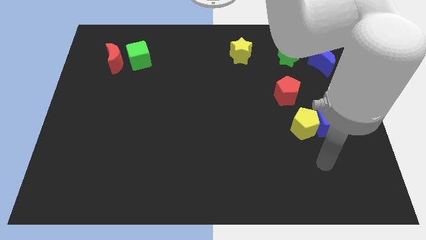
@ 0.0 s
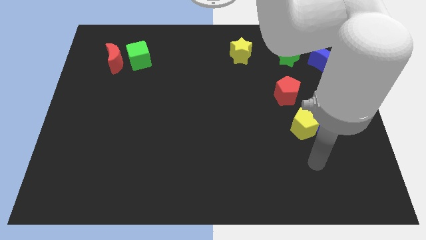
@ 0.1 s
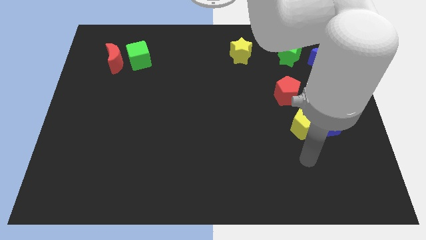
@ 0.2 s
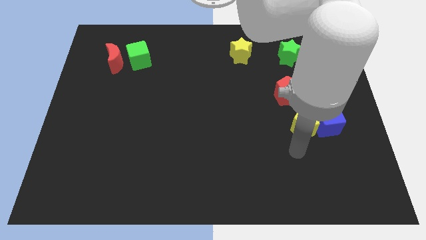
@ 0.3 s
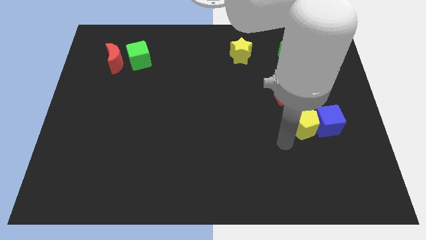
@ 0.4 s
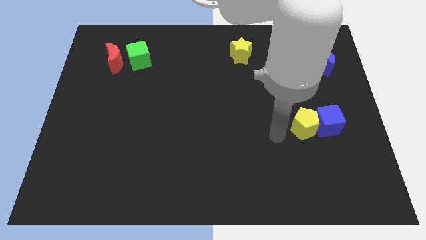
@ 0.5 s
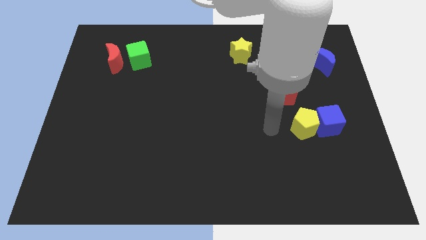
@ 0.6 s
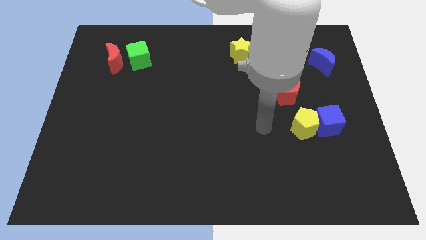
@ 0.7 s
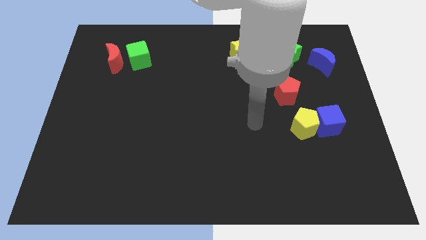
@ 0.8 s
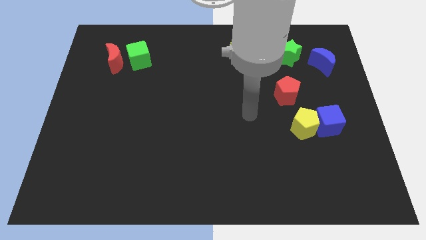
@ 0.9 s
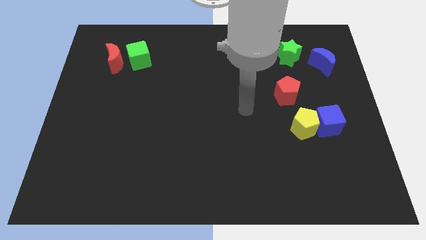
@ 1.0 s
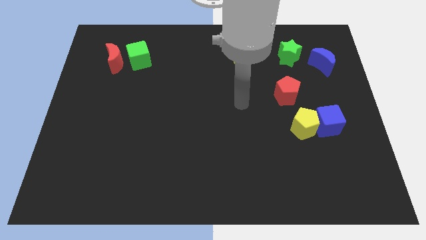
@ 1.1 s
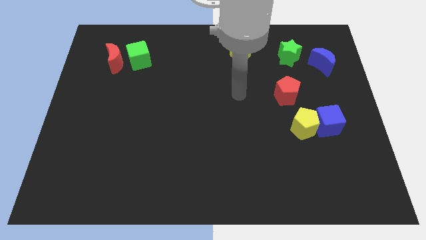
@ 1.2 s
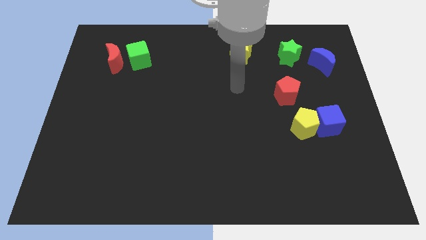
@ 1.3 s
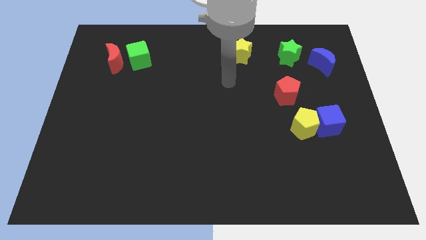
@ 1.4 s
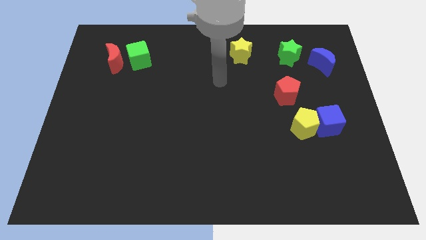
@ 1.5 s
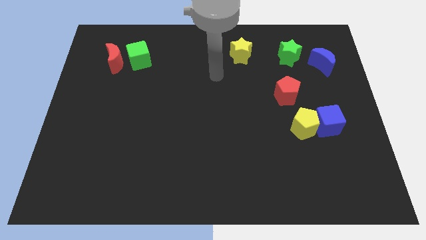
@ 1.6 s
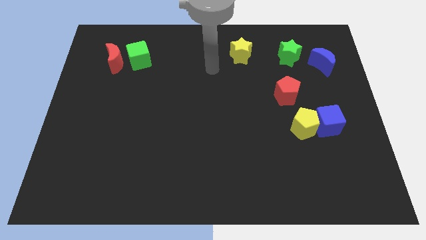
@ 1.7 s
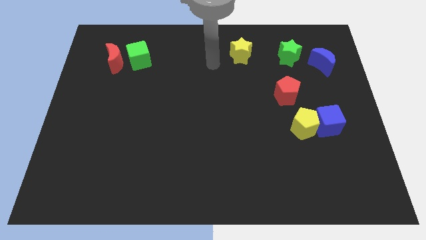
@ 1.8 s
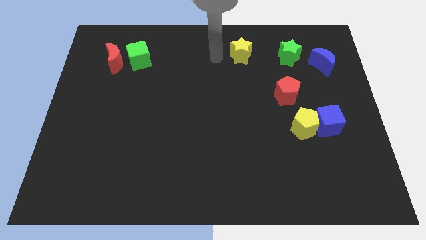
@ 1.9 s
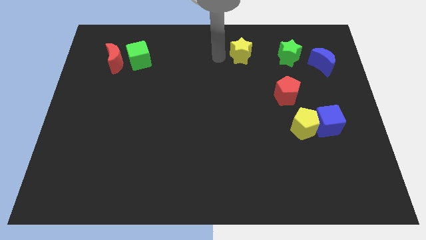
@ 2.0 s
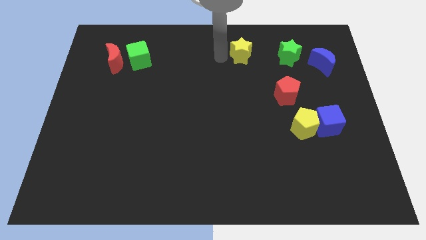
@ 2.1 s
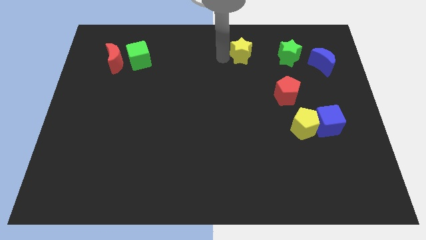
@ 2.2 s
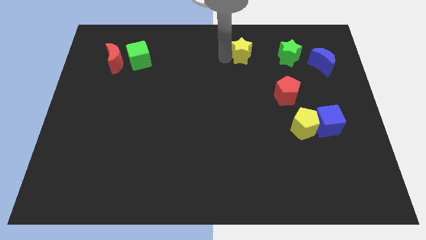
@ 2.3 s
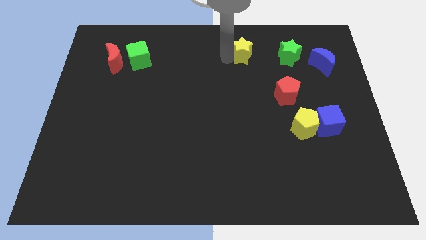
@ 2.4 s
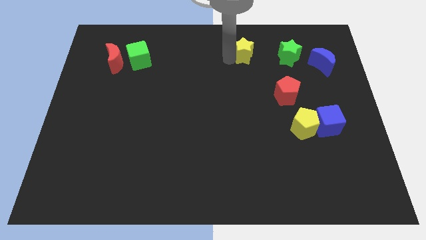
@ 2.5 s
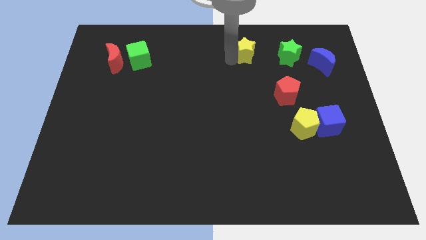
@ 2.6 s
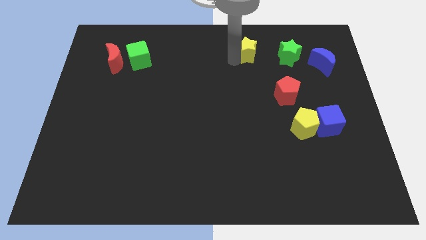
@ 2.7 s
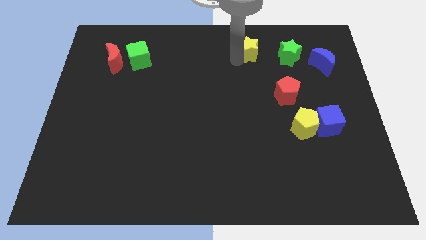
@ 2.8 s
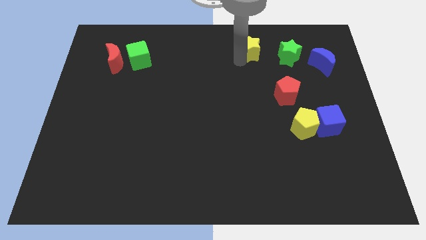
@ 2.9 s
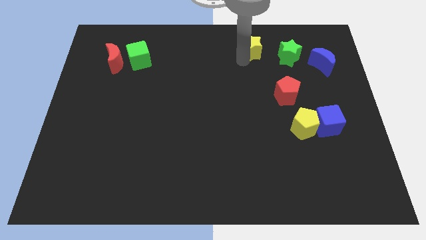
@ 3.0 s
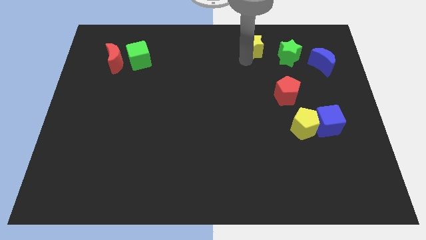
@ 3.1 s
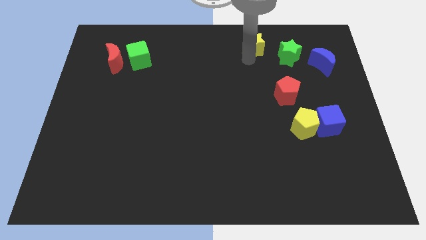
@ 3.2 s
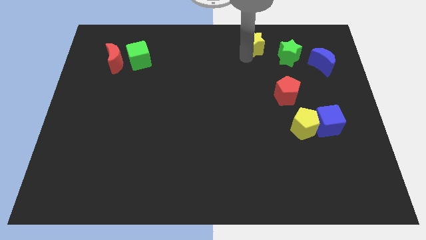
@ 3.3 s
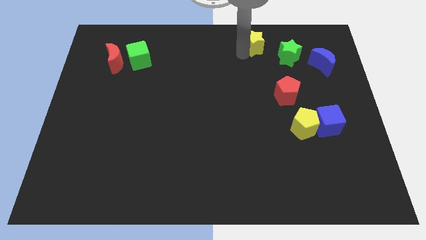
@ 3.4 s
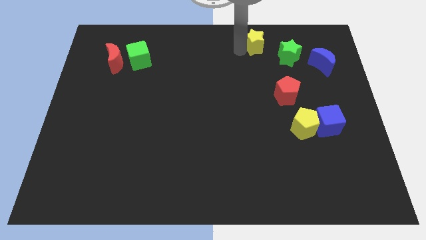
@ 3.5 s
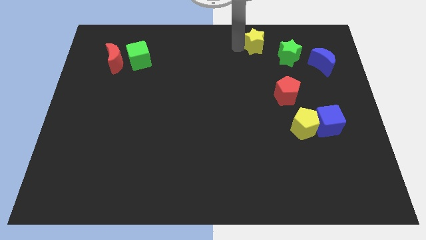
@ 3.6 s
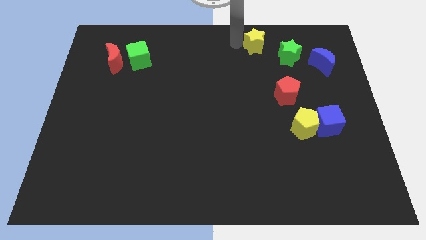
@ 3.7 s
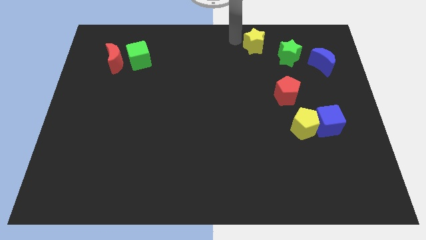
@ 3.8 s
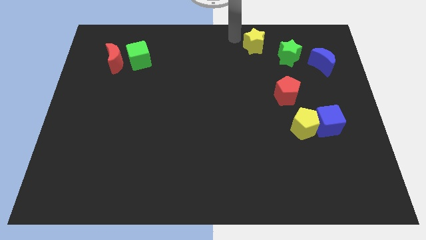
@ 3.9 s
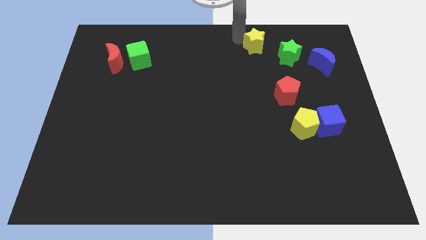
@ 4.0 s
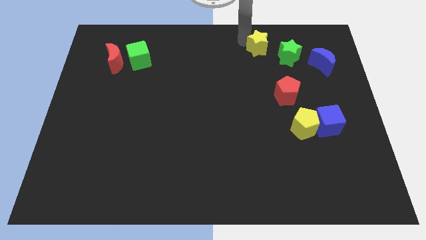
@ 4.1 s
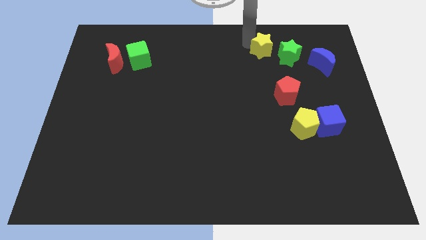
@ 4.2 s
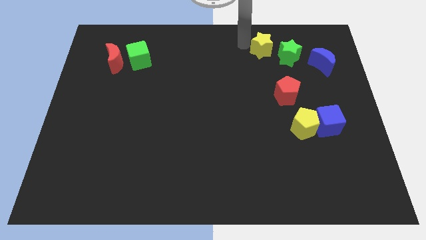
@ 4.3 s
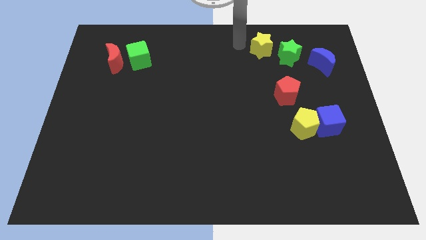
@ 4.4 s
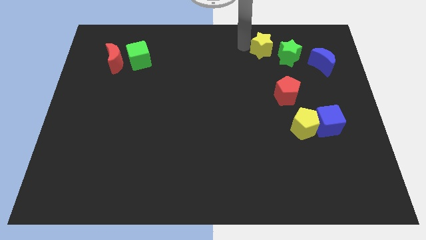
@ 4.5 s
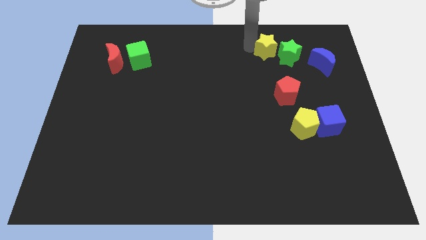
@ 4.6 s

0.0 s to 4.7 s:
put the yellow star next to the green star

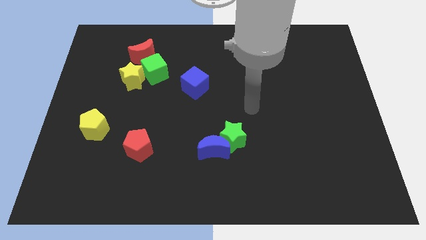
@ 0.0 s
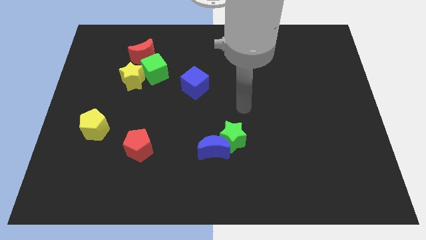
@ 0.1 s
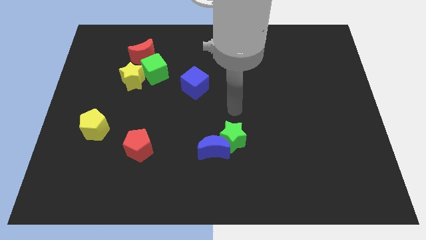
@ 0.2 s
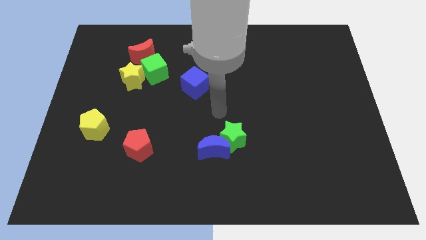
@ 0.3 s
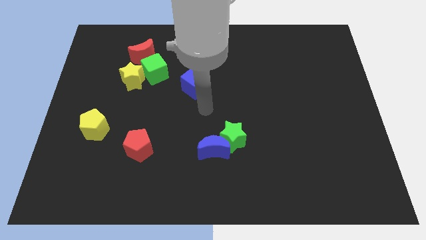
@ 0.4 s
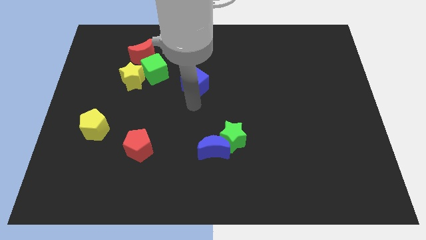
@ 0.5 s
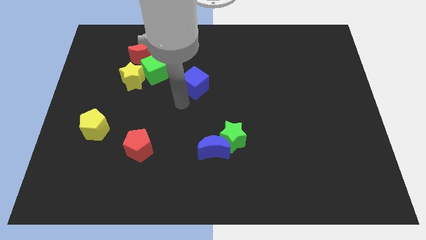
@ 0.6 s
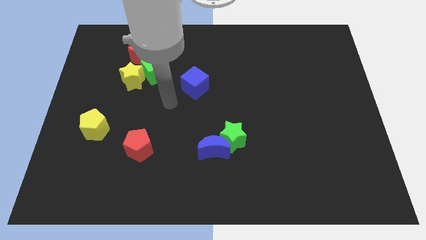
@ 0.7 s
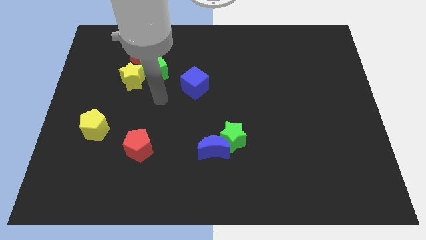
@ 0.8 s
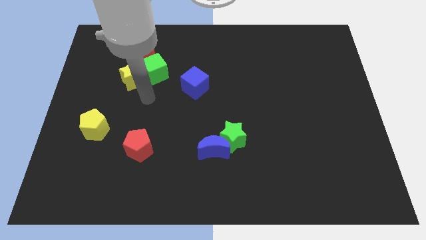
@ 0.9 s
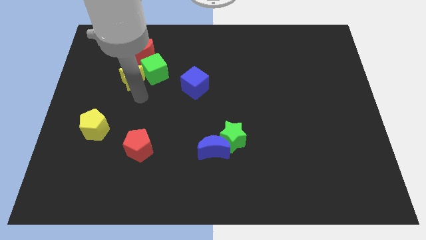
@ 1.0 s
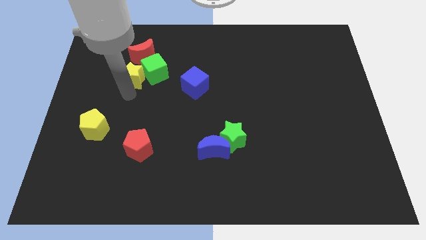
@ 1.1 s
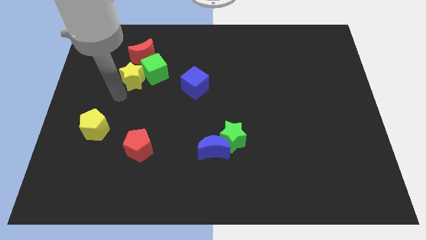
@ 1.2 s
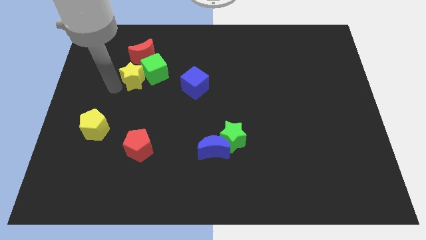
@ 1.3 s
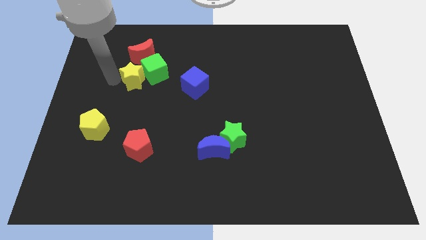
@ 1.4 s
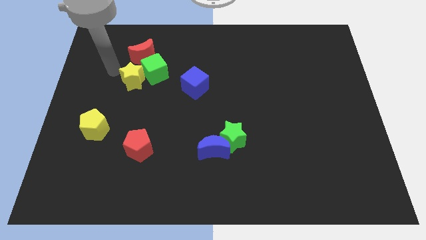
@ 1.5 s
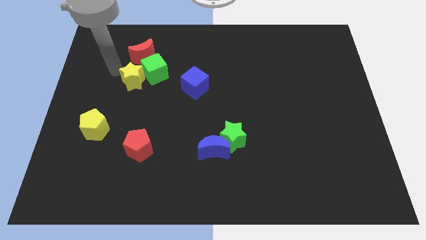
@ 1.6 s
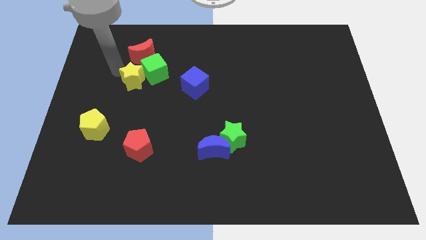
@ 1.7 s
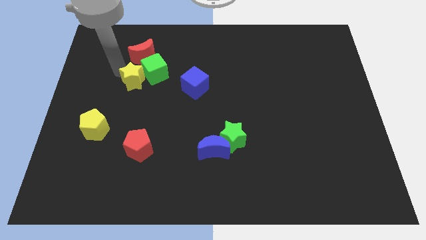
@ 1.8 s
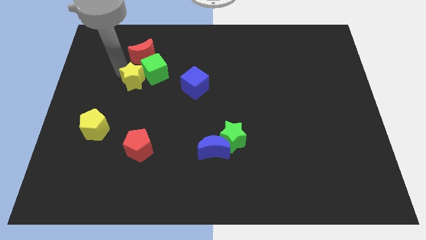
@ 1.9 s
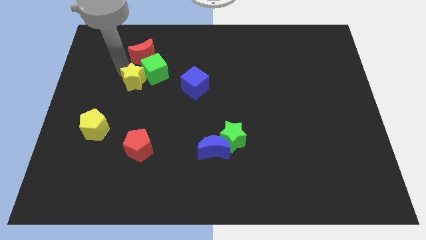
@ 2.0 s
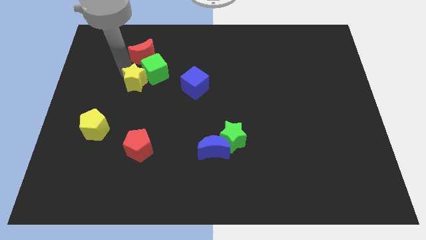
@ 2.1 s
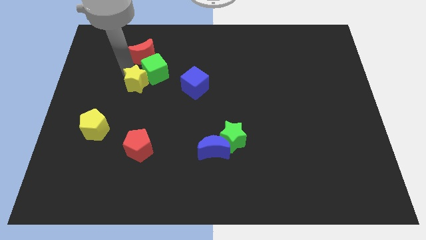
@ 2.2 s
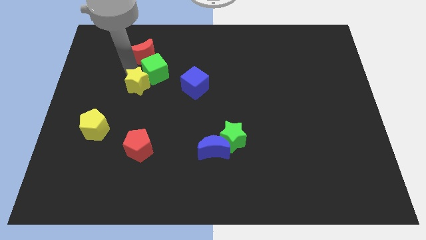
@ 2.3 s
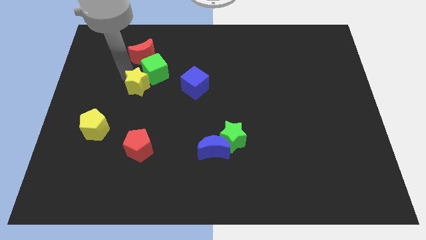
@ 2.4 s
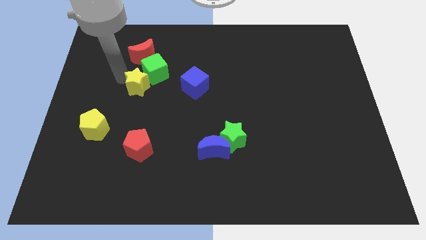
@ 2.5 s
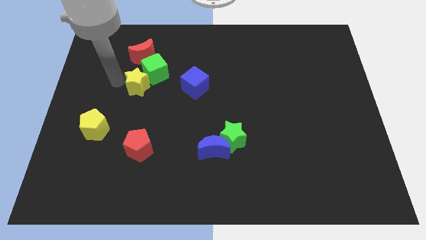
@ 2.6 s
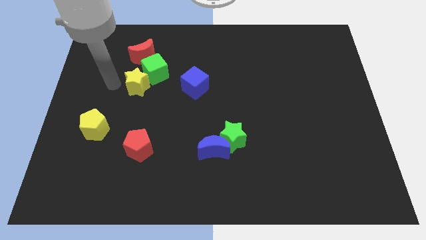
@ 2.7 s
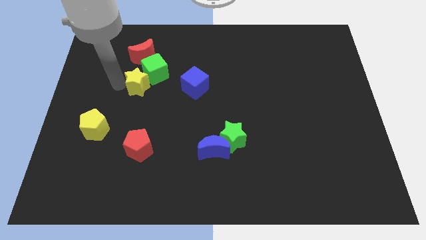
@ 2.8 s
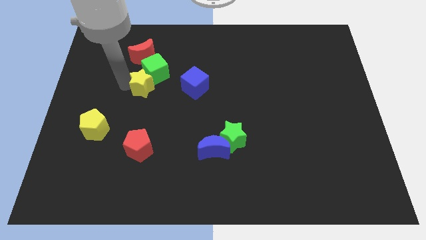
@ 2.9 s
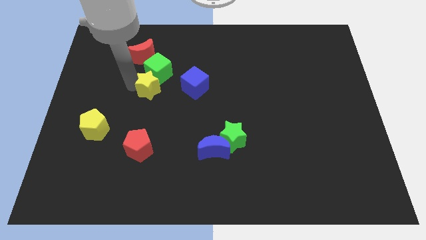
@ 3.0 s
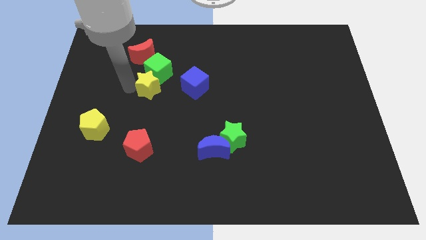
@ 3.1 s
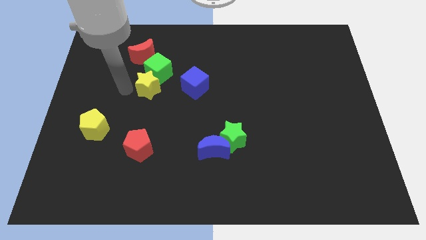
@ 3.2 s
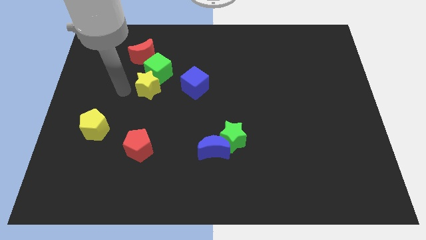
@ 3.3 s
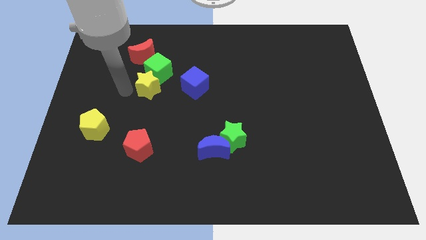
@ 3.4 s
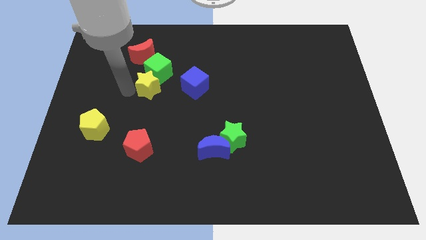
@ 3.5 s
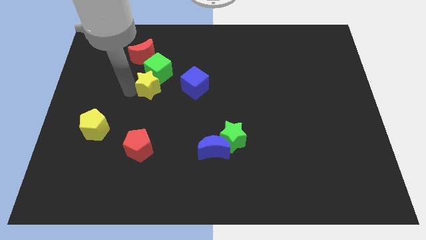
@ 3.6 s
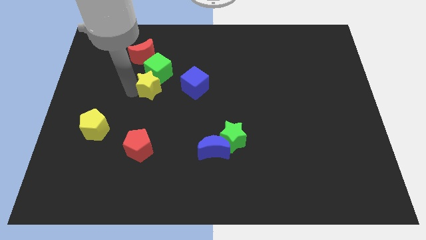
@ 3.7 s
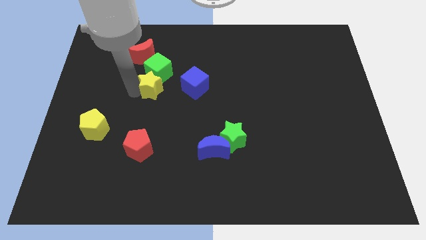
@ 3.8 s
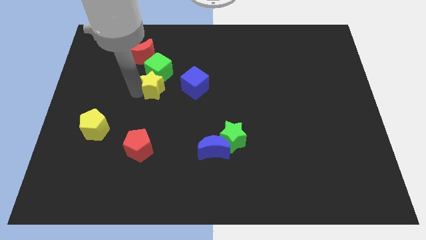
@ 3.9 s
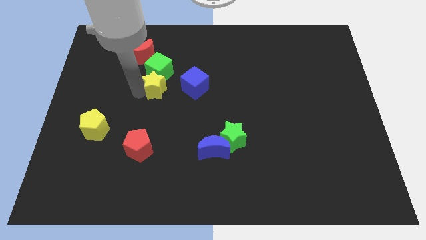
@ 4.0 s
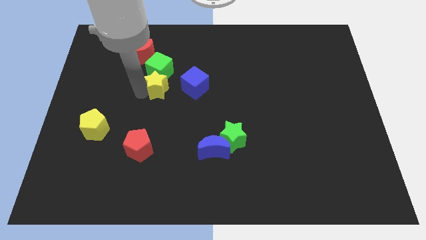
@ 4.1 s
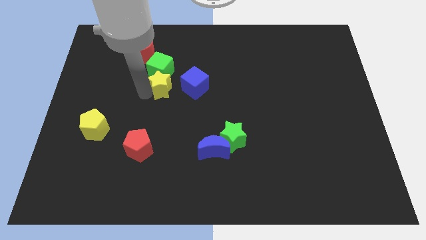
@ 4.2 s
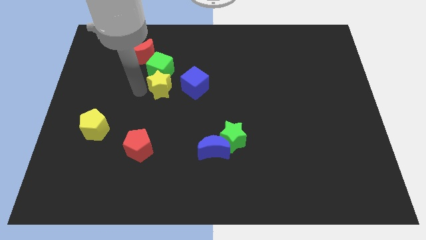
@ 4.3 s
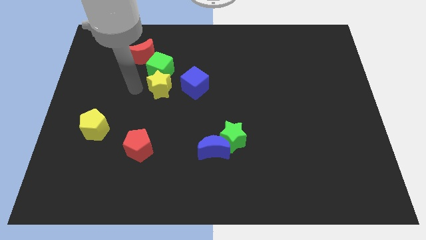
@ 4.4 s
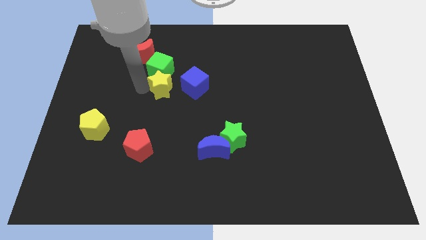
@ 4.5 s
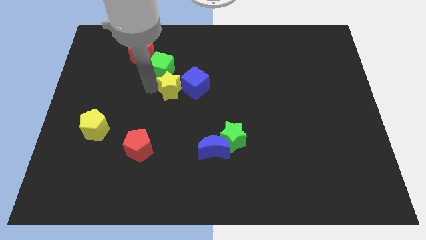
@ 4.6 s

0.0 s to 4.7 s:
put the yellow star close to the blue cube
